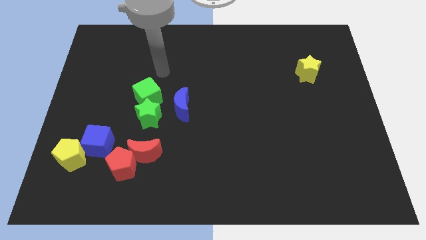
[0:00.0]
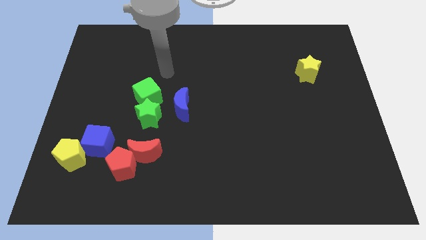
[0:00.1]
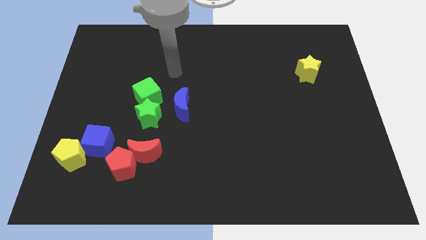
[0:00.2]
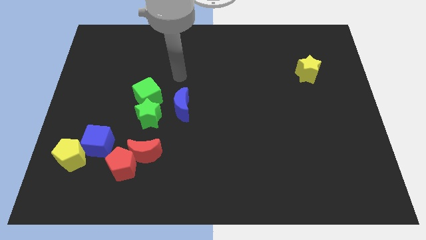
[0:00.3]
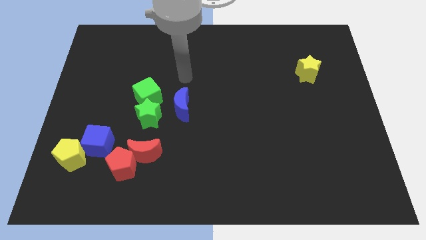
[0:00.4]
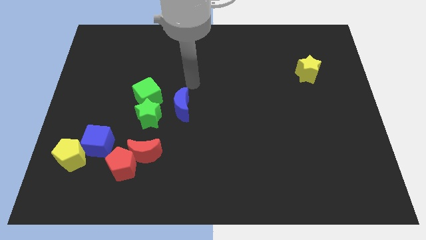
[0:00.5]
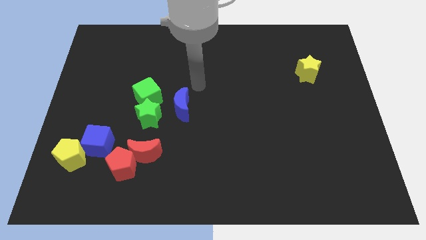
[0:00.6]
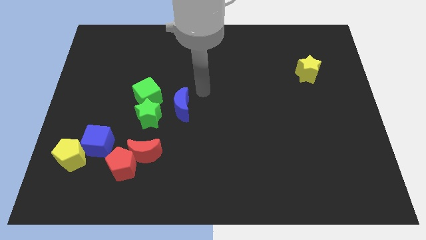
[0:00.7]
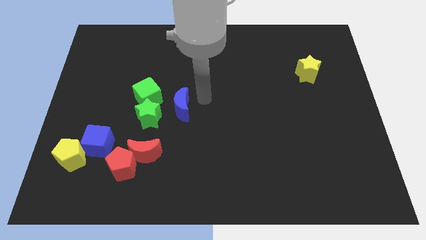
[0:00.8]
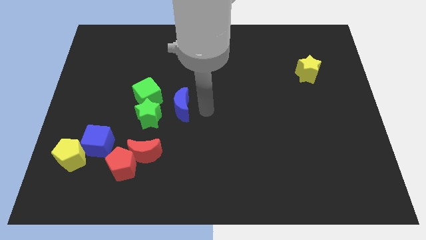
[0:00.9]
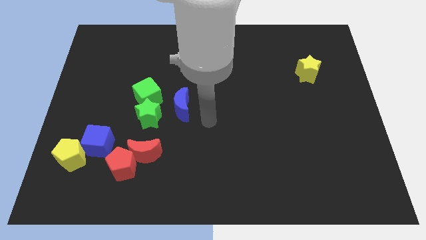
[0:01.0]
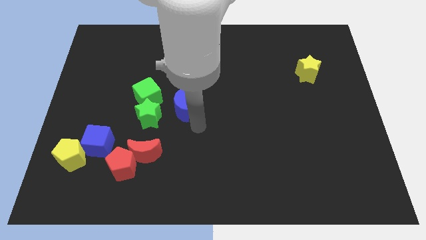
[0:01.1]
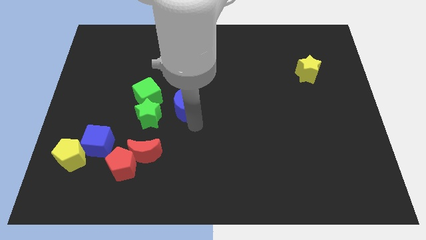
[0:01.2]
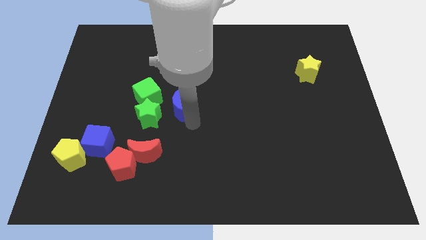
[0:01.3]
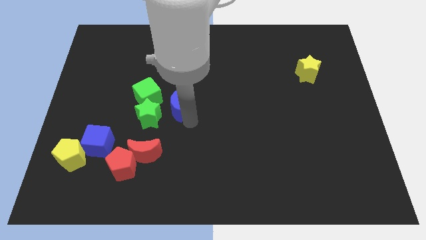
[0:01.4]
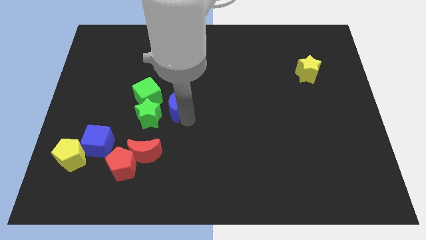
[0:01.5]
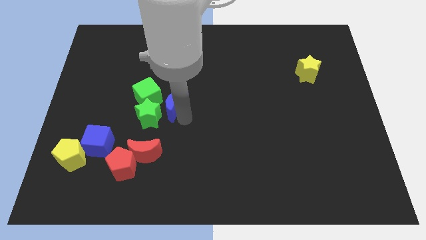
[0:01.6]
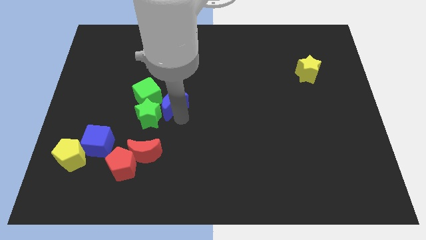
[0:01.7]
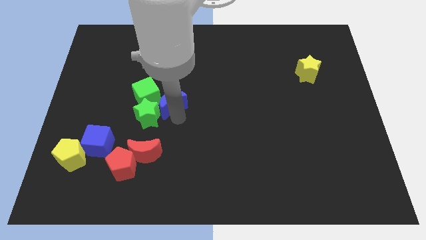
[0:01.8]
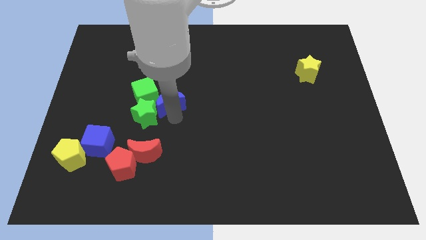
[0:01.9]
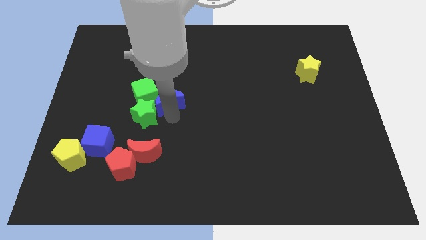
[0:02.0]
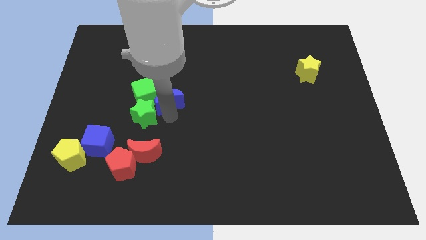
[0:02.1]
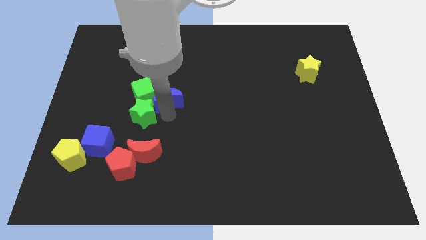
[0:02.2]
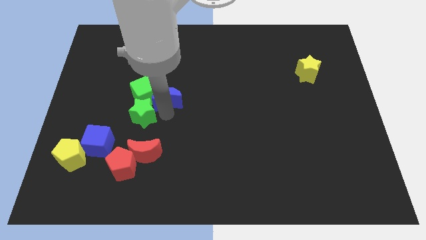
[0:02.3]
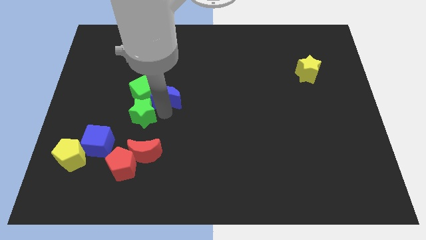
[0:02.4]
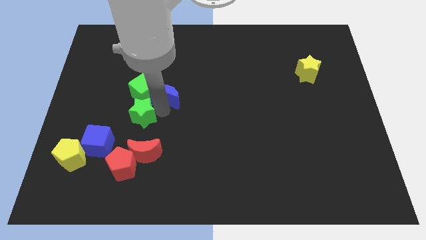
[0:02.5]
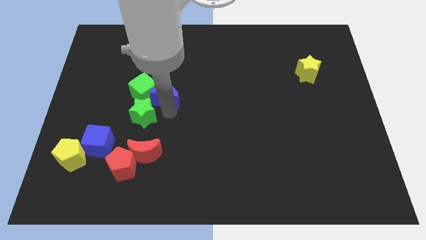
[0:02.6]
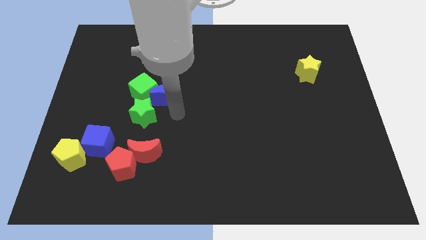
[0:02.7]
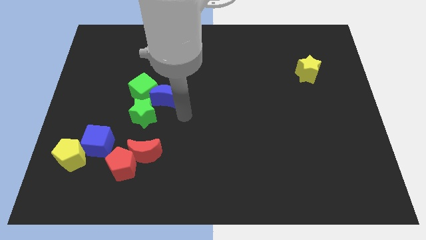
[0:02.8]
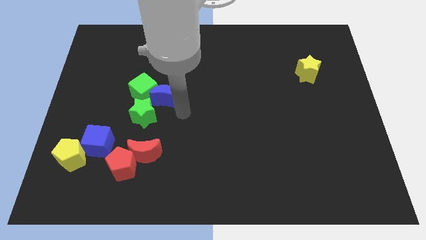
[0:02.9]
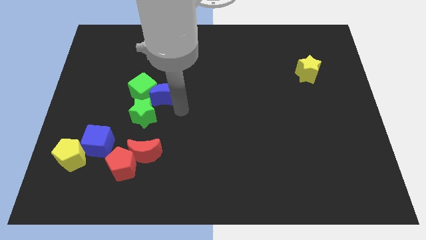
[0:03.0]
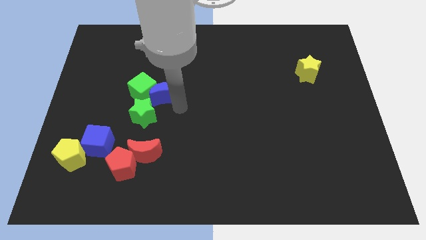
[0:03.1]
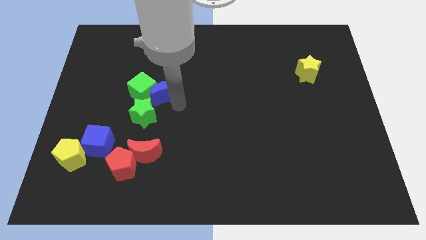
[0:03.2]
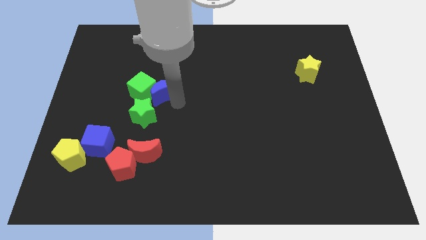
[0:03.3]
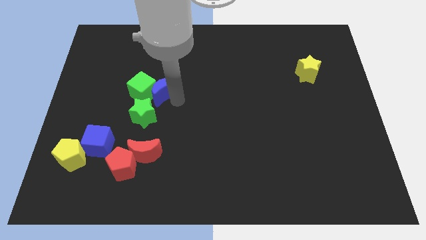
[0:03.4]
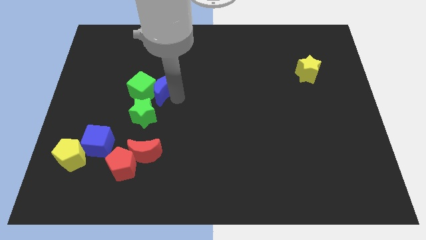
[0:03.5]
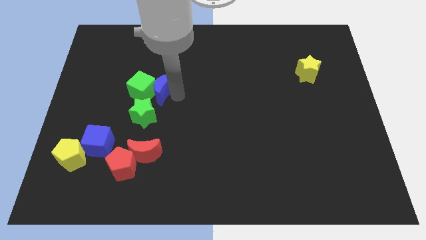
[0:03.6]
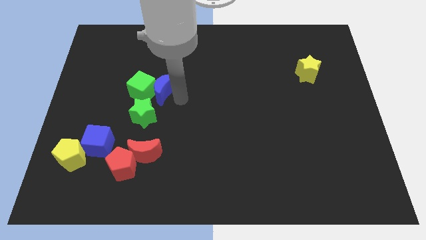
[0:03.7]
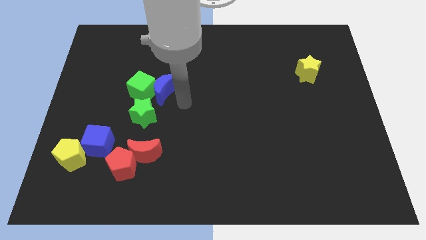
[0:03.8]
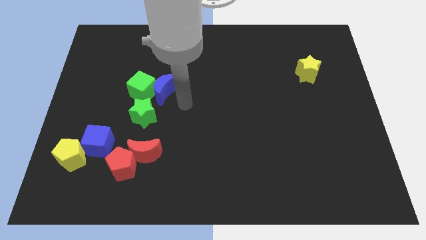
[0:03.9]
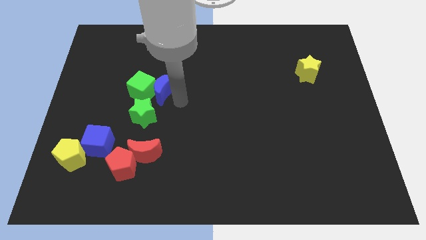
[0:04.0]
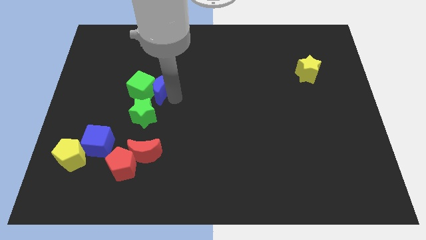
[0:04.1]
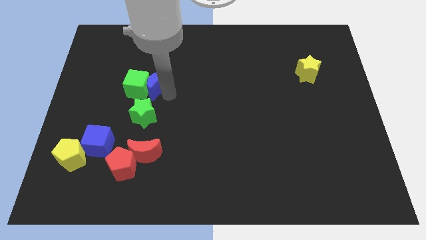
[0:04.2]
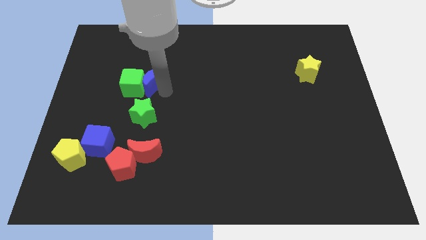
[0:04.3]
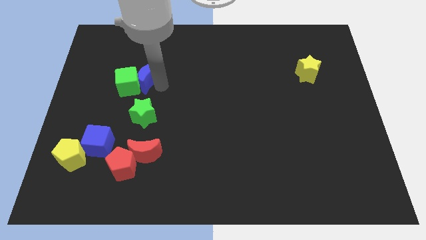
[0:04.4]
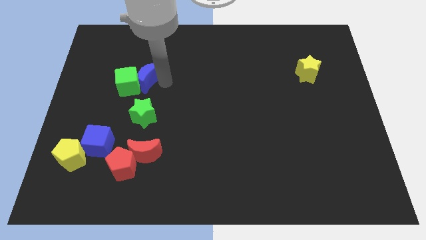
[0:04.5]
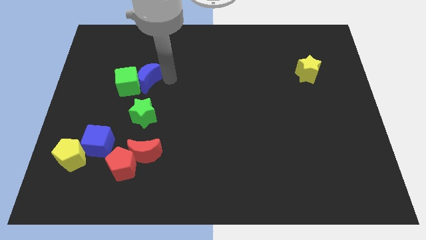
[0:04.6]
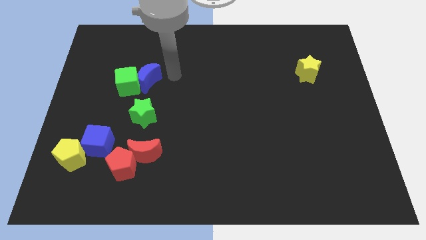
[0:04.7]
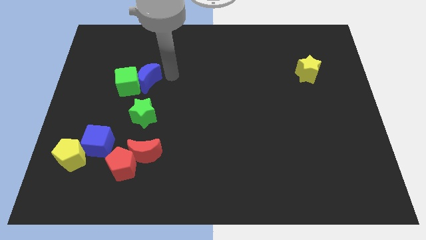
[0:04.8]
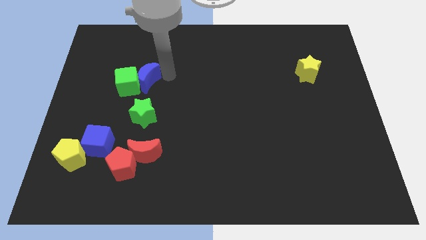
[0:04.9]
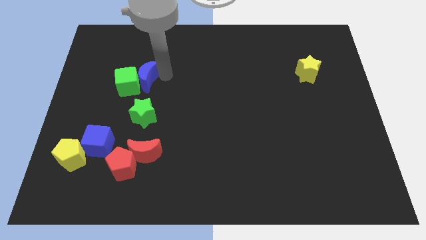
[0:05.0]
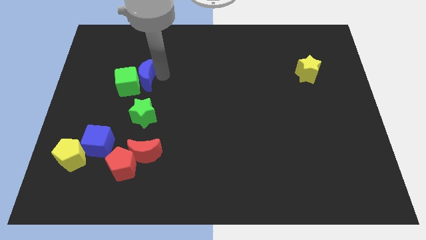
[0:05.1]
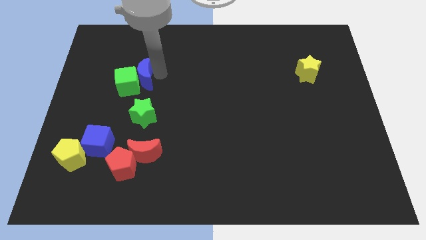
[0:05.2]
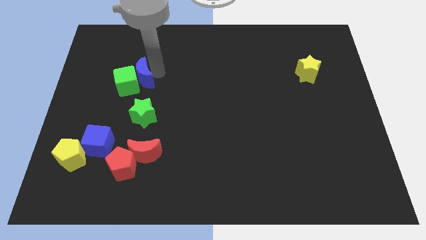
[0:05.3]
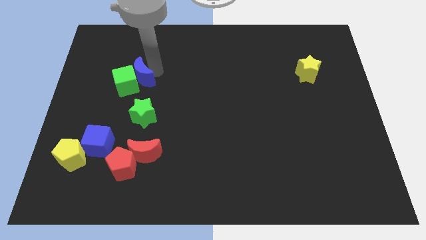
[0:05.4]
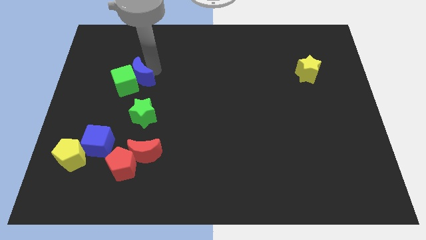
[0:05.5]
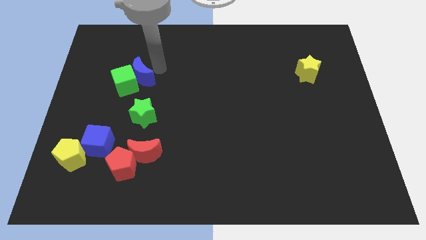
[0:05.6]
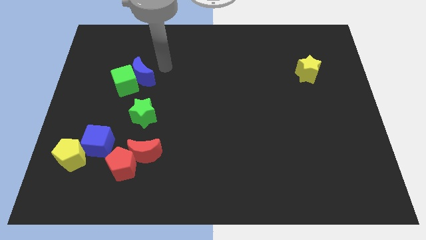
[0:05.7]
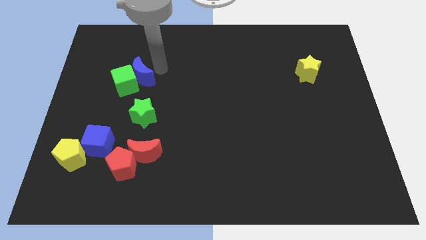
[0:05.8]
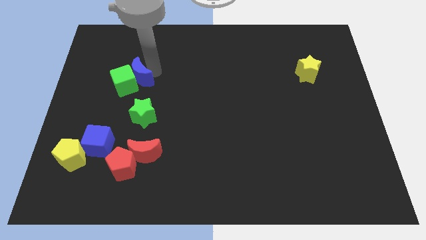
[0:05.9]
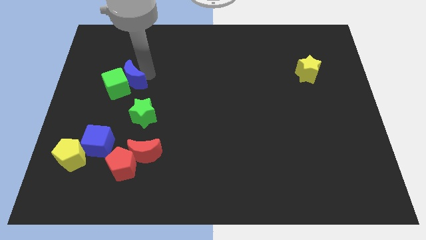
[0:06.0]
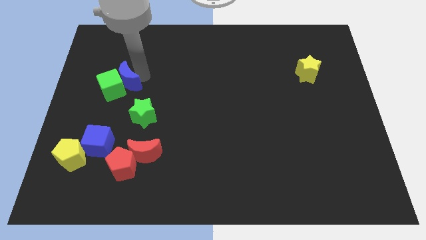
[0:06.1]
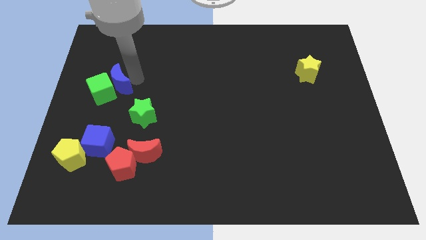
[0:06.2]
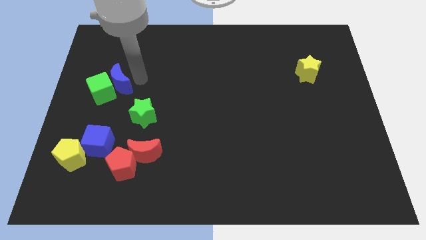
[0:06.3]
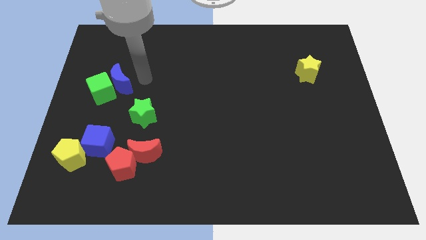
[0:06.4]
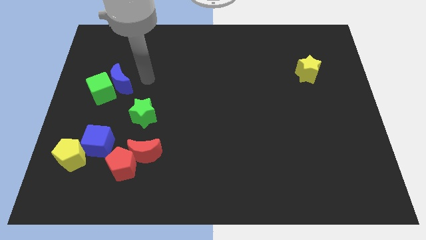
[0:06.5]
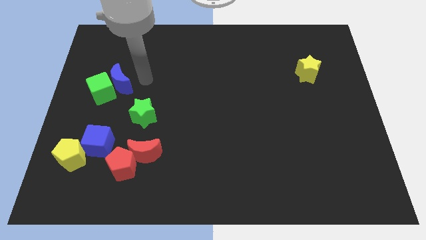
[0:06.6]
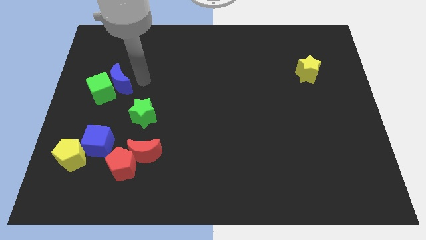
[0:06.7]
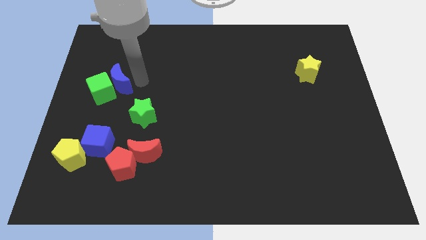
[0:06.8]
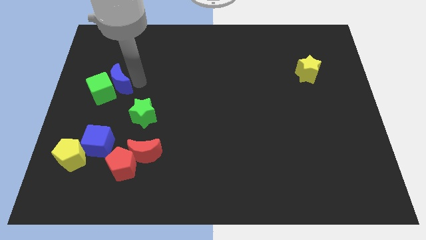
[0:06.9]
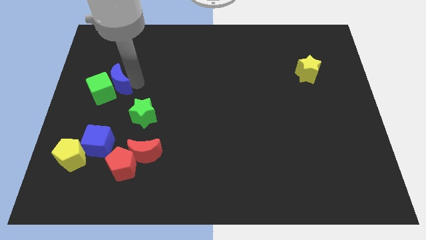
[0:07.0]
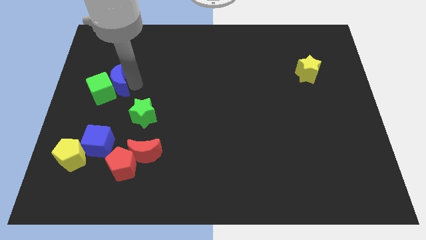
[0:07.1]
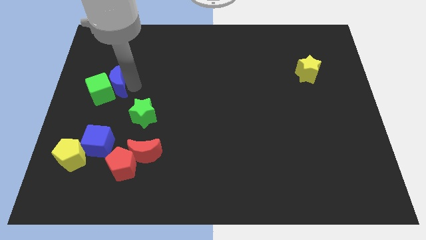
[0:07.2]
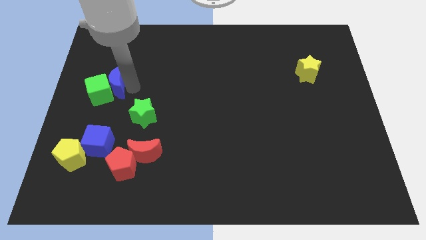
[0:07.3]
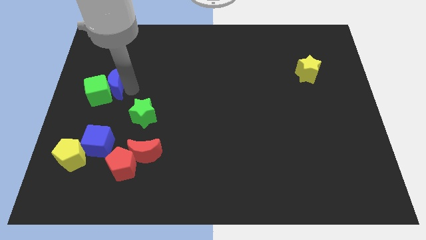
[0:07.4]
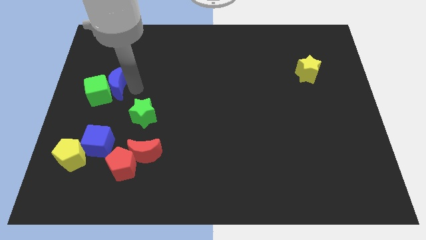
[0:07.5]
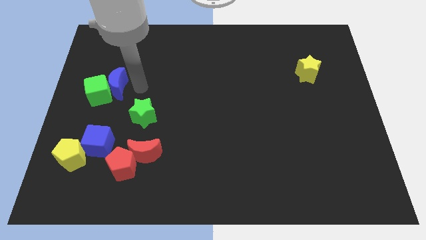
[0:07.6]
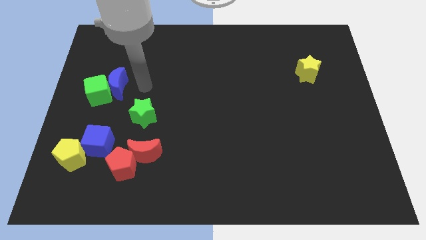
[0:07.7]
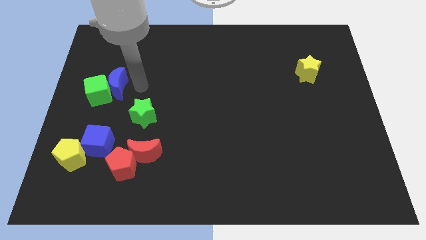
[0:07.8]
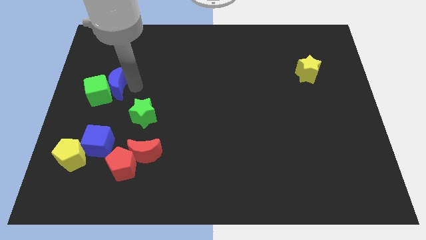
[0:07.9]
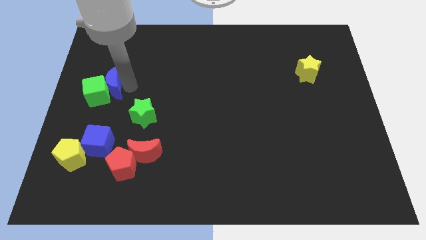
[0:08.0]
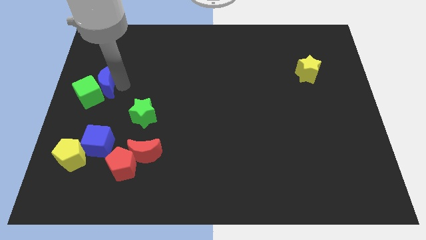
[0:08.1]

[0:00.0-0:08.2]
slide the blue moon to the center left
